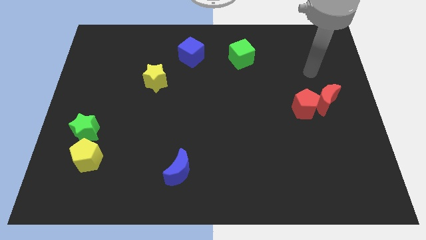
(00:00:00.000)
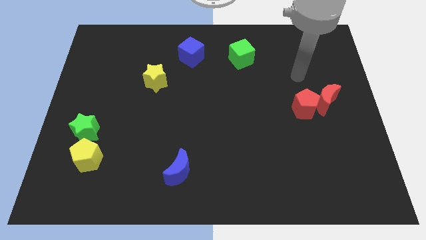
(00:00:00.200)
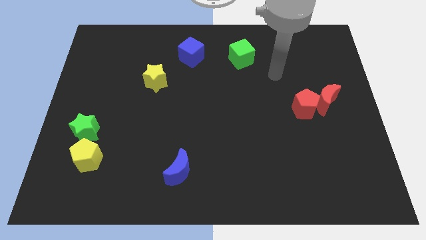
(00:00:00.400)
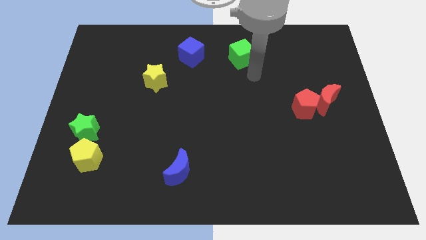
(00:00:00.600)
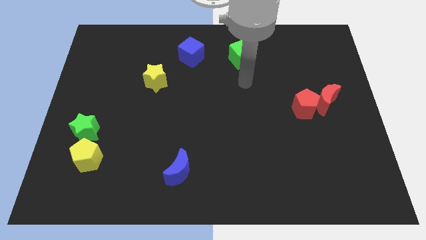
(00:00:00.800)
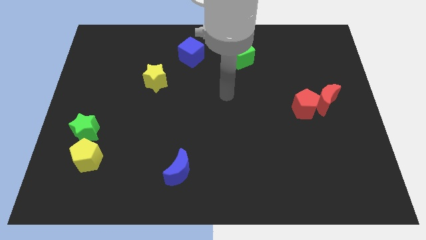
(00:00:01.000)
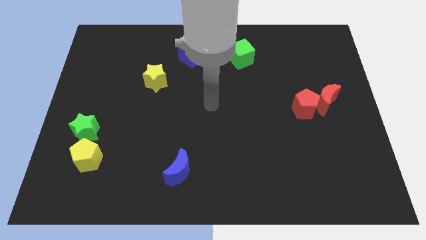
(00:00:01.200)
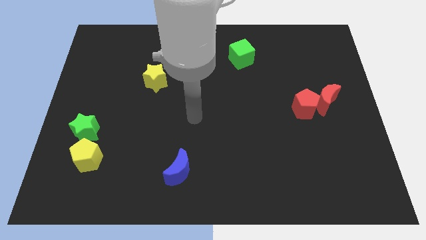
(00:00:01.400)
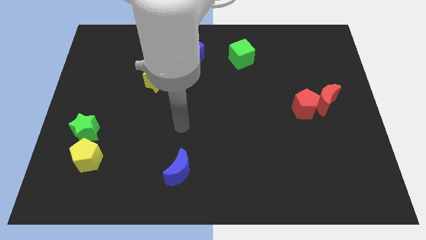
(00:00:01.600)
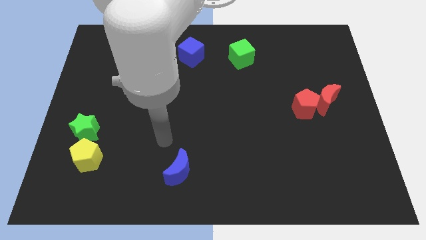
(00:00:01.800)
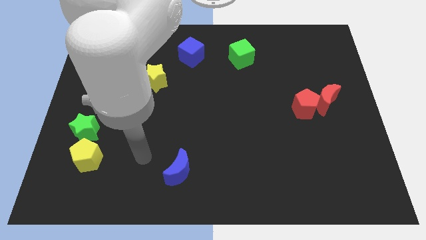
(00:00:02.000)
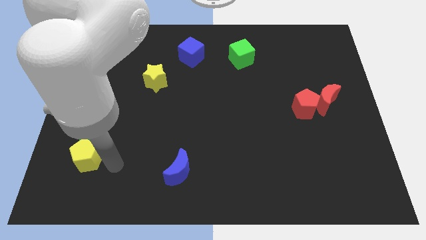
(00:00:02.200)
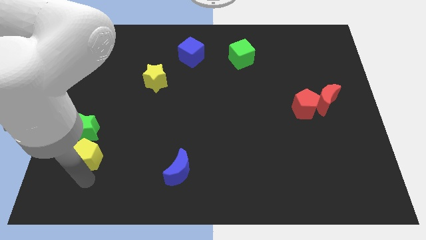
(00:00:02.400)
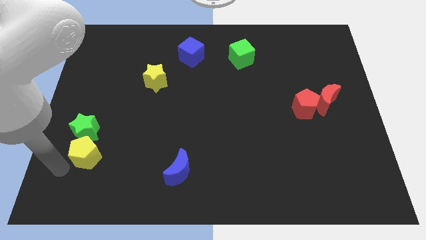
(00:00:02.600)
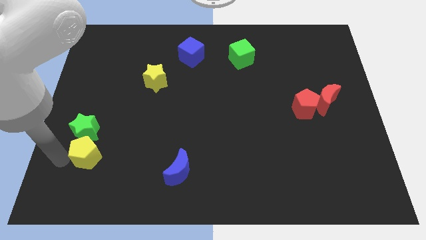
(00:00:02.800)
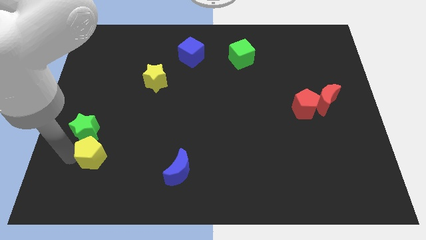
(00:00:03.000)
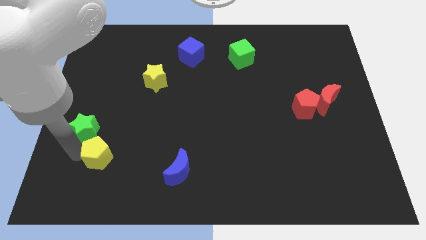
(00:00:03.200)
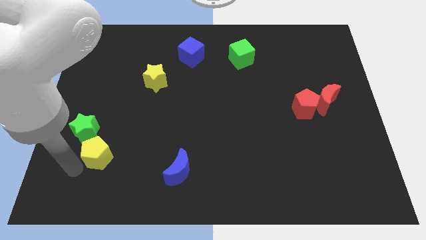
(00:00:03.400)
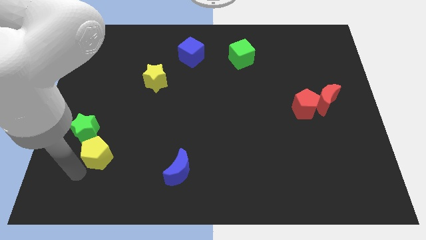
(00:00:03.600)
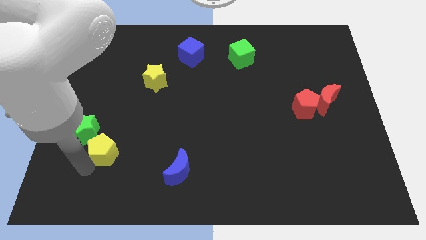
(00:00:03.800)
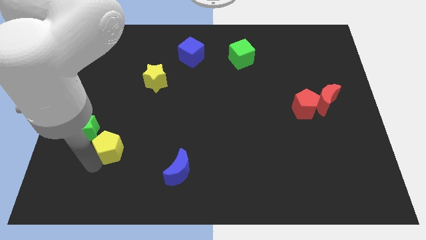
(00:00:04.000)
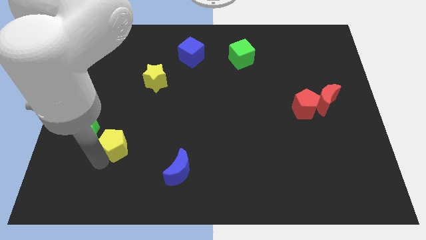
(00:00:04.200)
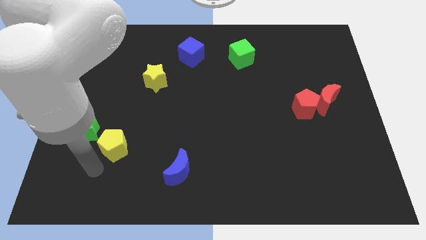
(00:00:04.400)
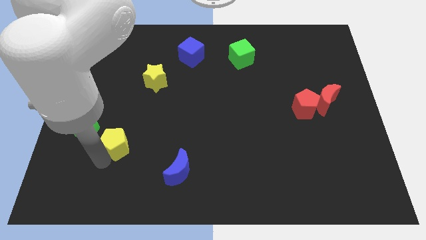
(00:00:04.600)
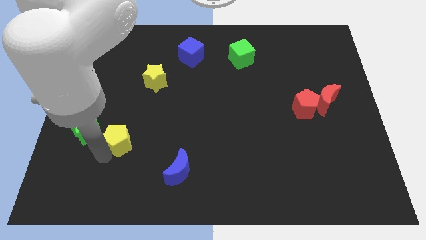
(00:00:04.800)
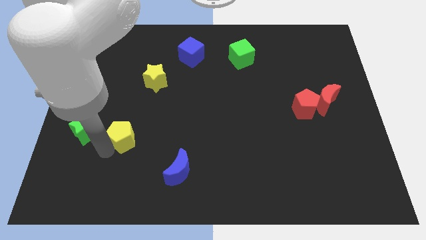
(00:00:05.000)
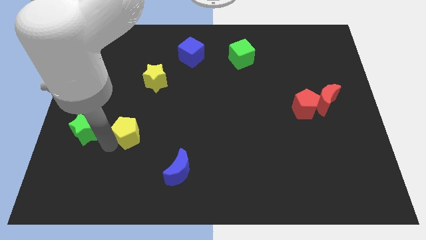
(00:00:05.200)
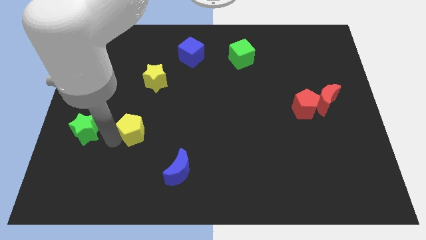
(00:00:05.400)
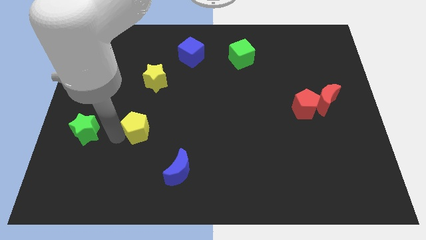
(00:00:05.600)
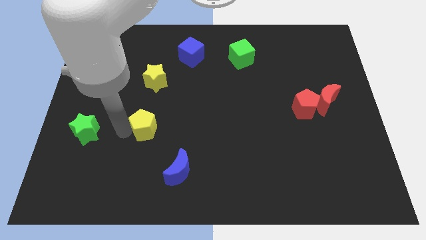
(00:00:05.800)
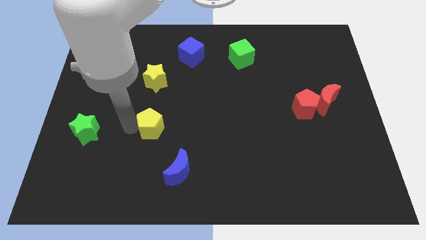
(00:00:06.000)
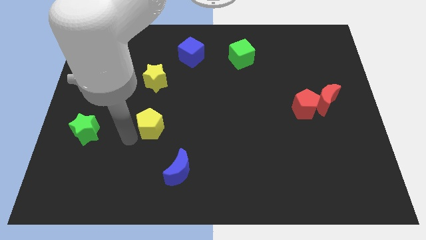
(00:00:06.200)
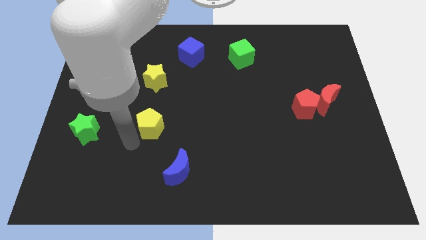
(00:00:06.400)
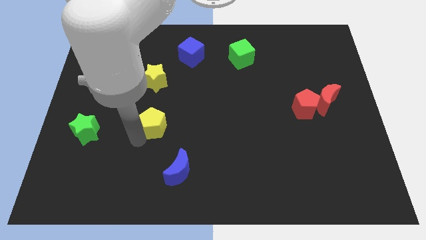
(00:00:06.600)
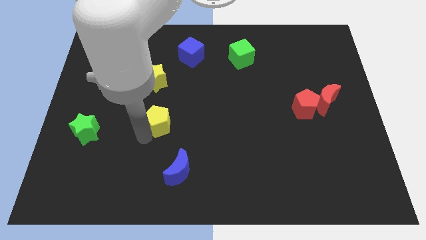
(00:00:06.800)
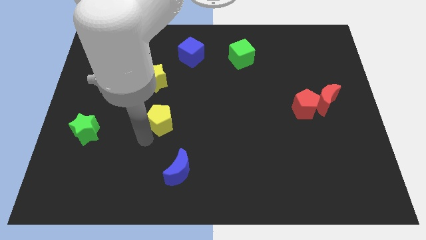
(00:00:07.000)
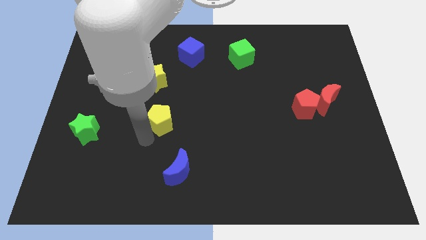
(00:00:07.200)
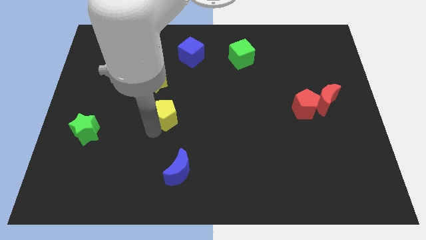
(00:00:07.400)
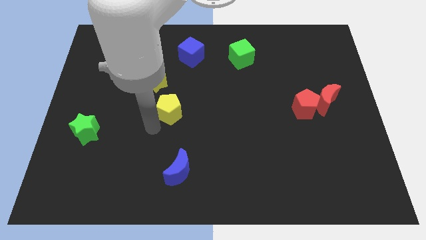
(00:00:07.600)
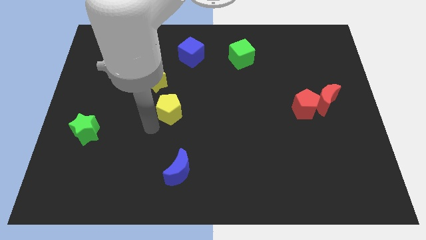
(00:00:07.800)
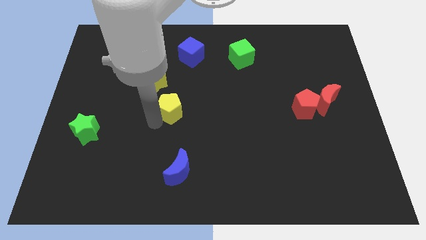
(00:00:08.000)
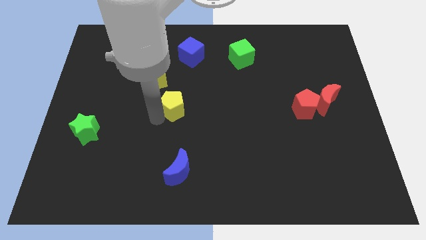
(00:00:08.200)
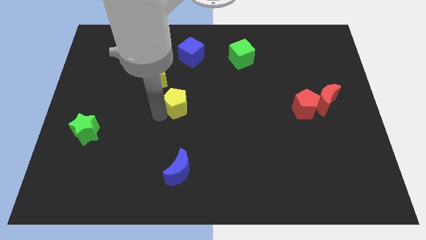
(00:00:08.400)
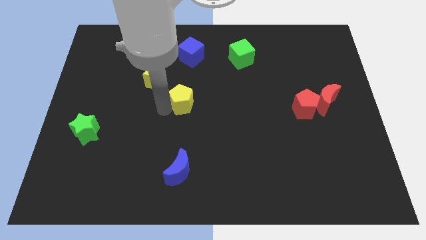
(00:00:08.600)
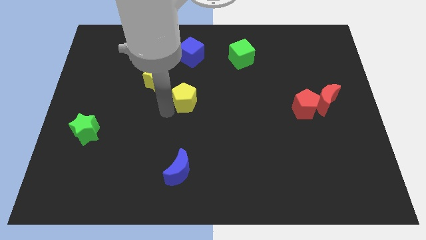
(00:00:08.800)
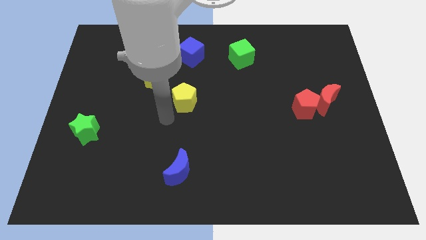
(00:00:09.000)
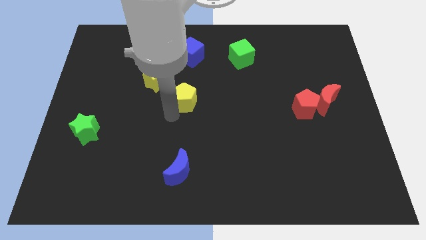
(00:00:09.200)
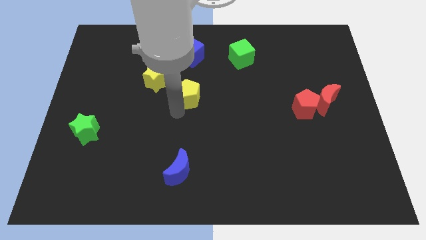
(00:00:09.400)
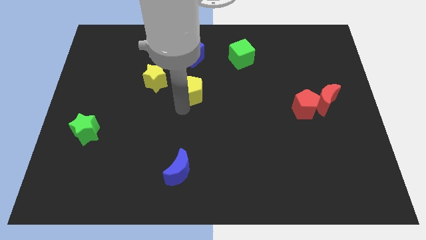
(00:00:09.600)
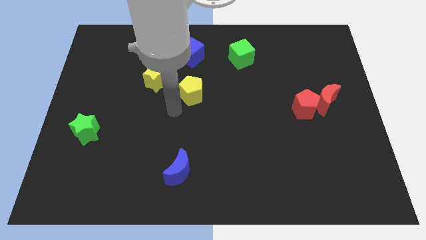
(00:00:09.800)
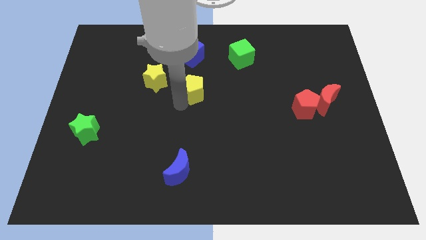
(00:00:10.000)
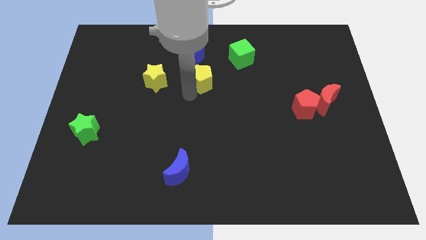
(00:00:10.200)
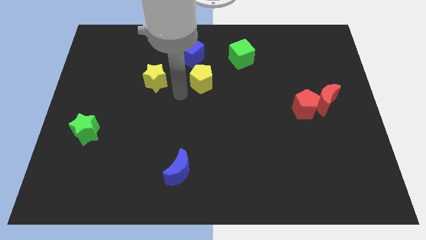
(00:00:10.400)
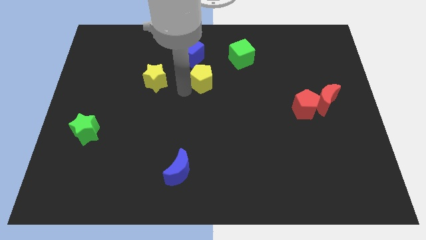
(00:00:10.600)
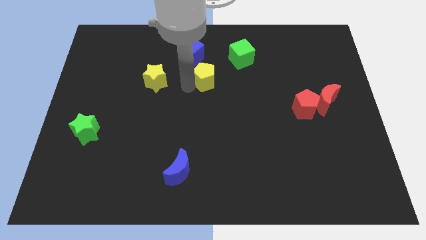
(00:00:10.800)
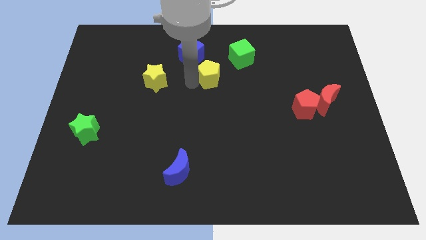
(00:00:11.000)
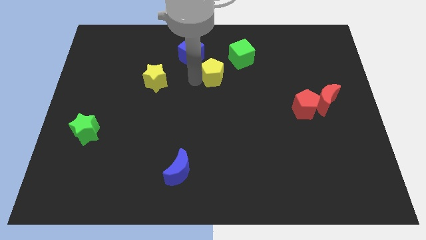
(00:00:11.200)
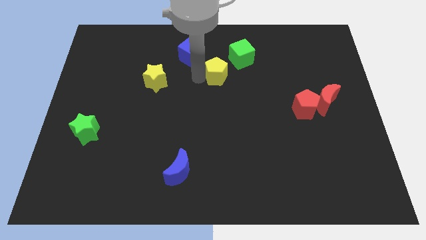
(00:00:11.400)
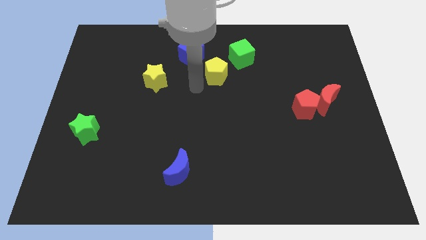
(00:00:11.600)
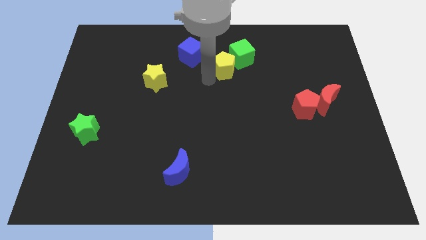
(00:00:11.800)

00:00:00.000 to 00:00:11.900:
move the yellow pentagon close to the green cube

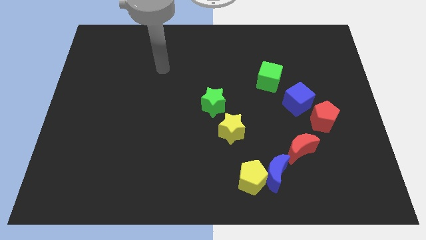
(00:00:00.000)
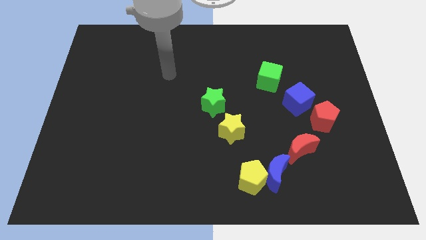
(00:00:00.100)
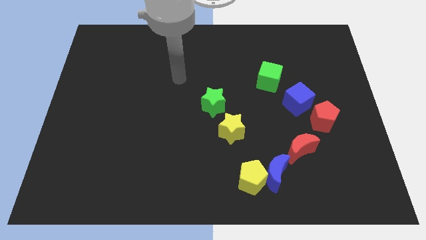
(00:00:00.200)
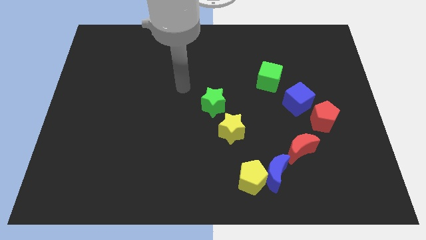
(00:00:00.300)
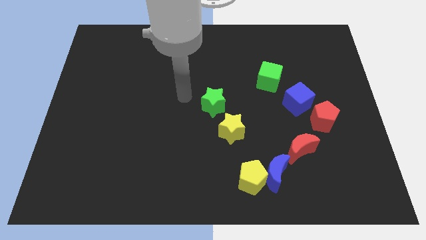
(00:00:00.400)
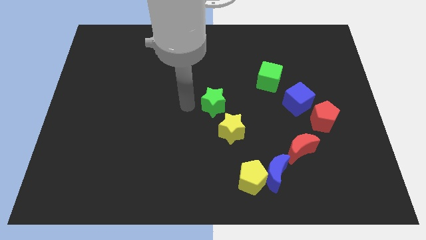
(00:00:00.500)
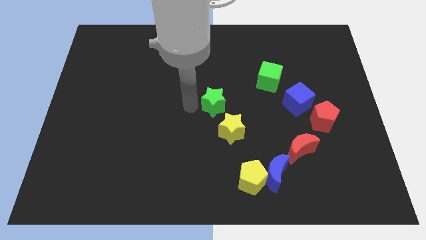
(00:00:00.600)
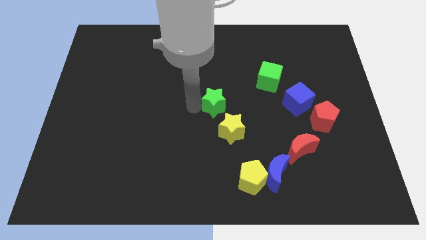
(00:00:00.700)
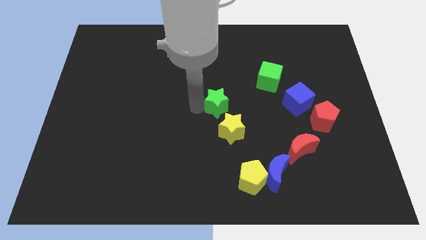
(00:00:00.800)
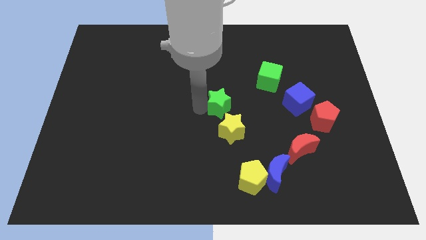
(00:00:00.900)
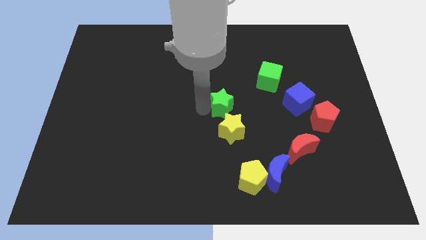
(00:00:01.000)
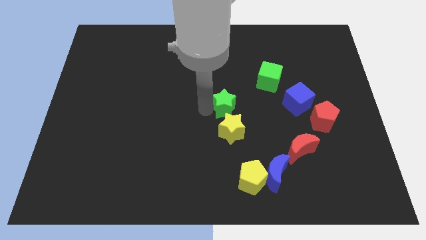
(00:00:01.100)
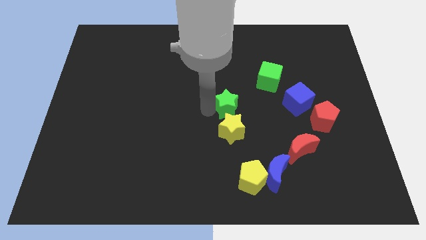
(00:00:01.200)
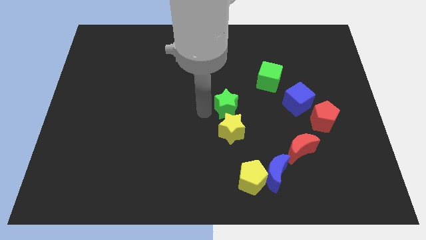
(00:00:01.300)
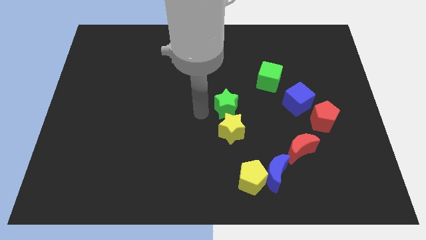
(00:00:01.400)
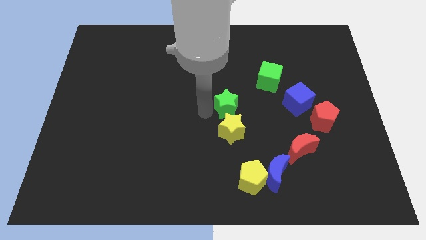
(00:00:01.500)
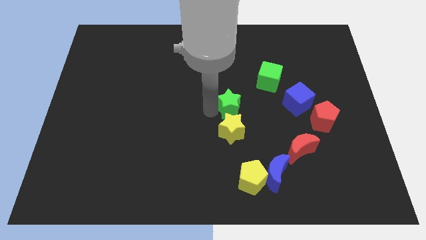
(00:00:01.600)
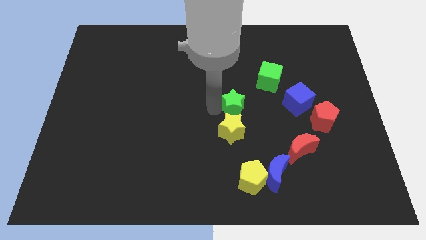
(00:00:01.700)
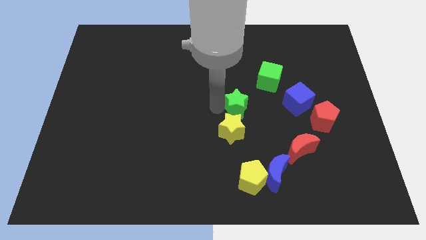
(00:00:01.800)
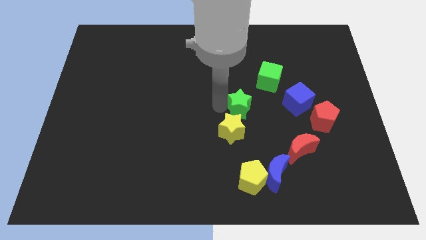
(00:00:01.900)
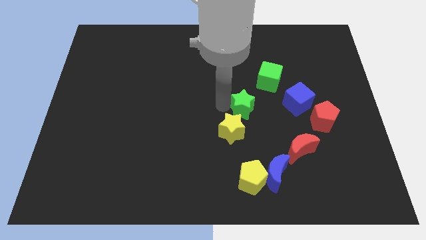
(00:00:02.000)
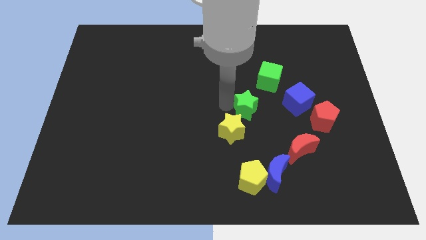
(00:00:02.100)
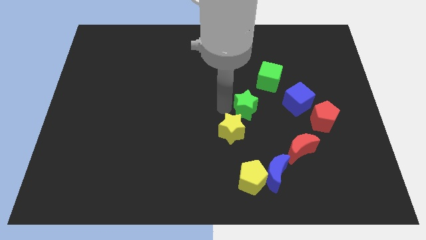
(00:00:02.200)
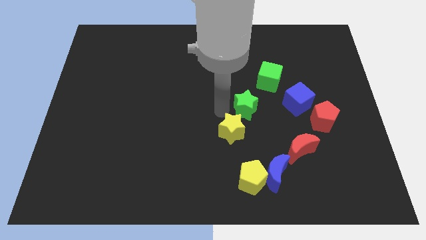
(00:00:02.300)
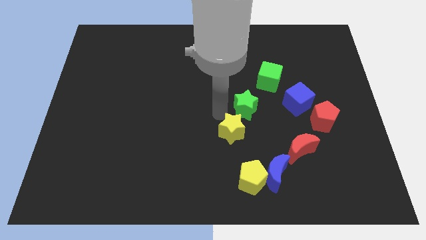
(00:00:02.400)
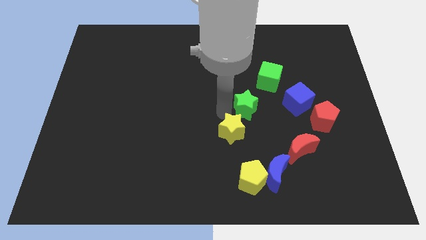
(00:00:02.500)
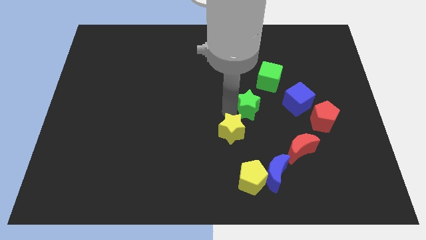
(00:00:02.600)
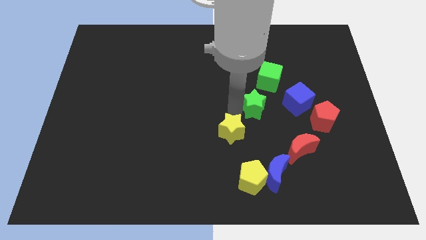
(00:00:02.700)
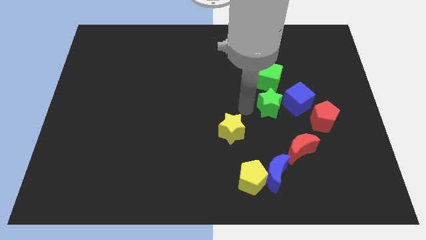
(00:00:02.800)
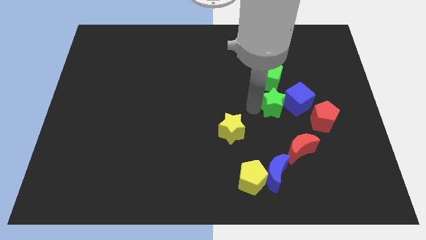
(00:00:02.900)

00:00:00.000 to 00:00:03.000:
move the green star close to the blue cube
